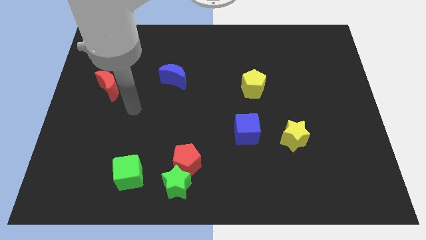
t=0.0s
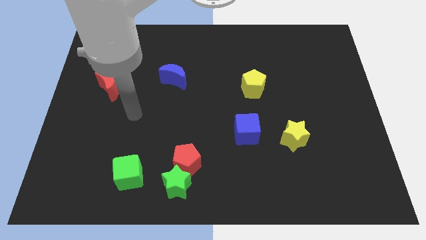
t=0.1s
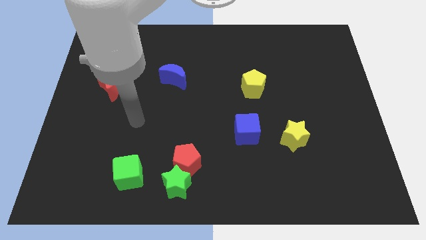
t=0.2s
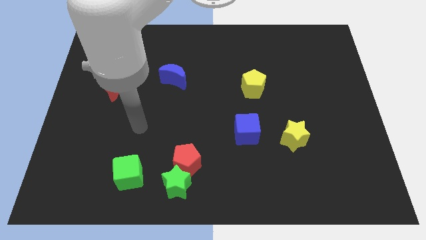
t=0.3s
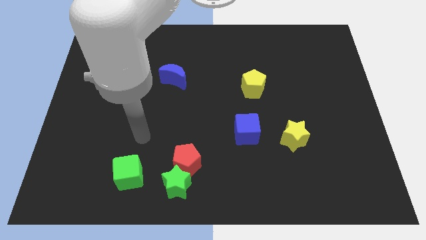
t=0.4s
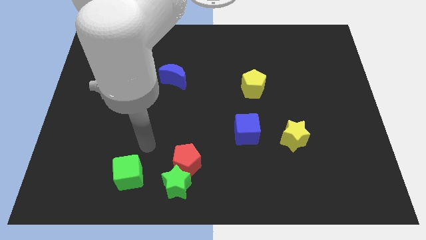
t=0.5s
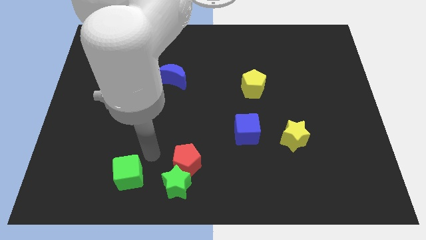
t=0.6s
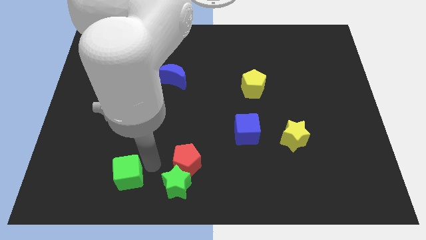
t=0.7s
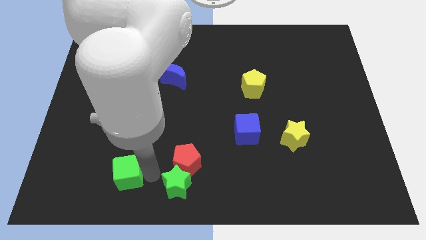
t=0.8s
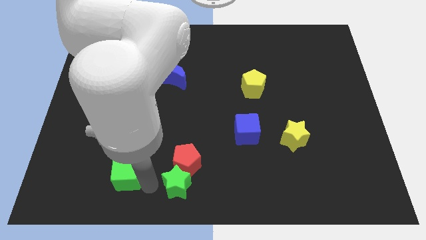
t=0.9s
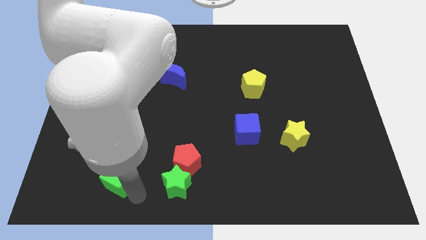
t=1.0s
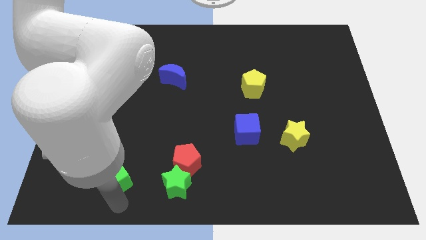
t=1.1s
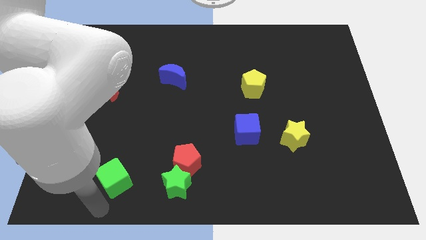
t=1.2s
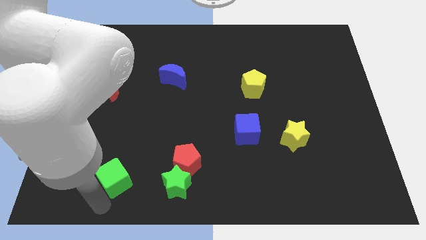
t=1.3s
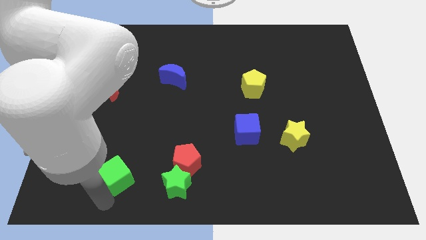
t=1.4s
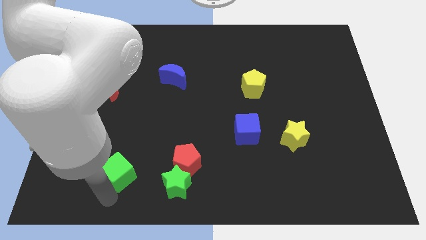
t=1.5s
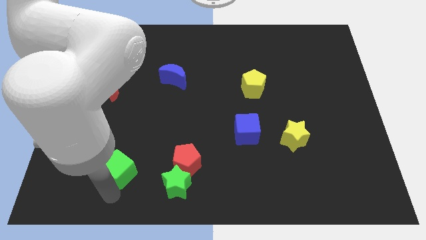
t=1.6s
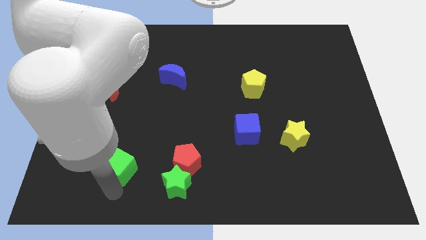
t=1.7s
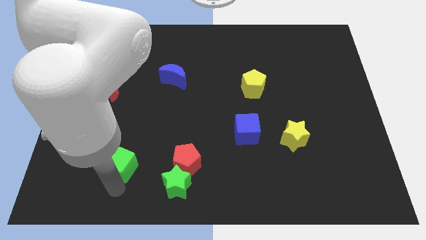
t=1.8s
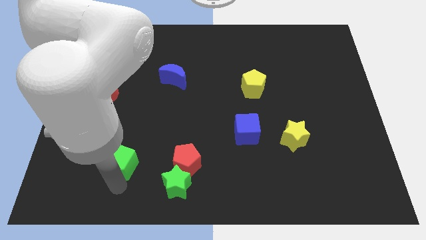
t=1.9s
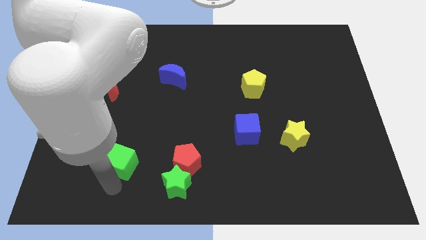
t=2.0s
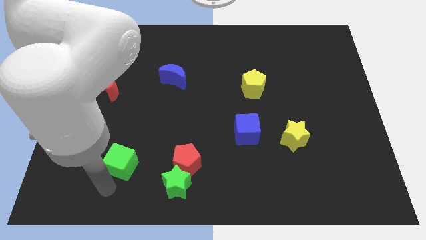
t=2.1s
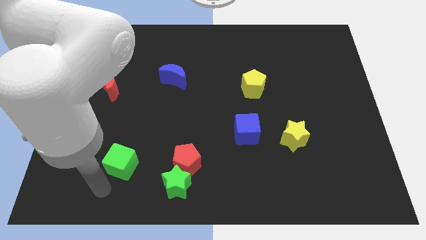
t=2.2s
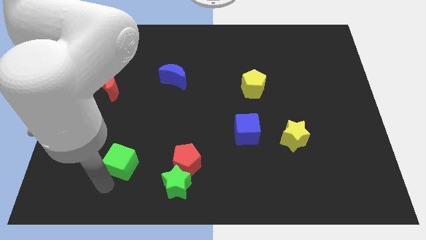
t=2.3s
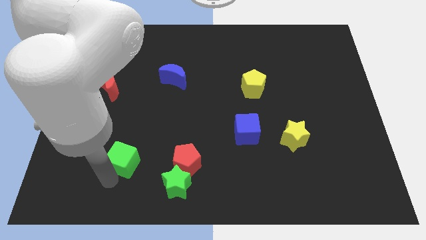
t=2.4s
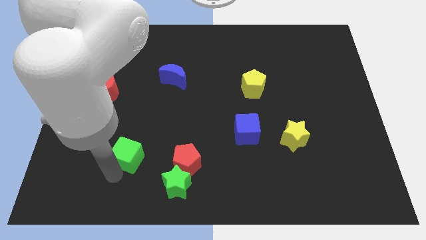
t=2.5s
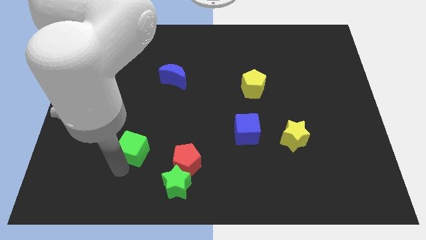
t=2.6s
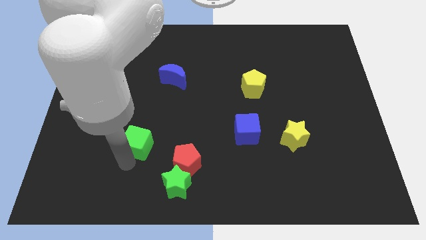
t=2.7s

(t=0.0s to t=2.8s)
slightly push the green cube upwards

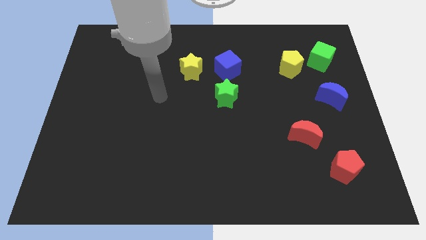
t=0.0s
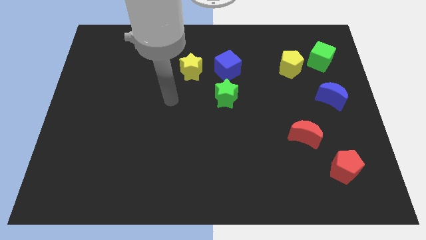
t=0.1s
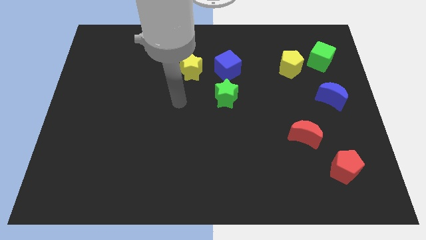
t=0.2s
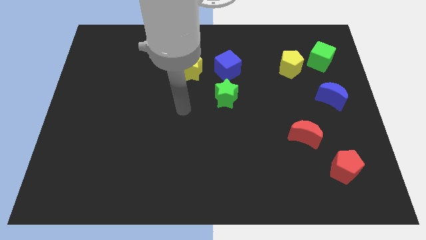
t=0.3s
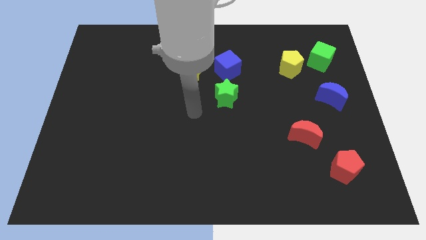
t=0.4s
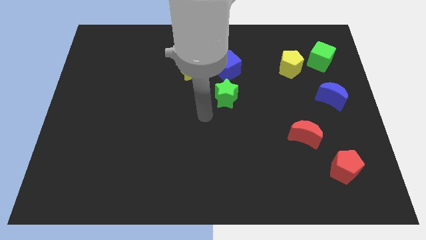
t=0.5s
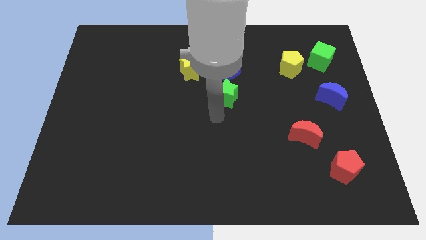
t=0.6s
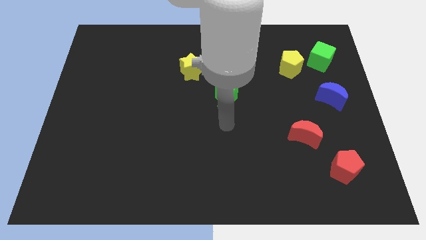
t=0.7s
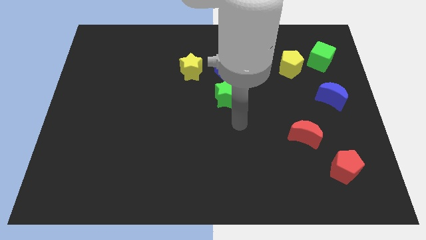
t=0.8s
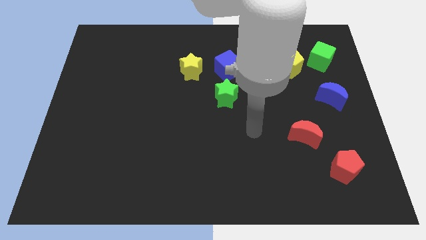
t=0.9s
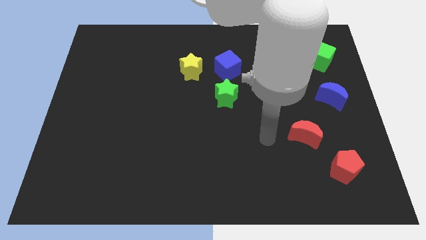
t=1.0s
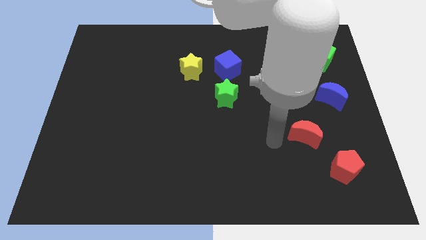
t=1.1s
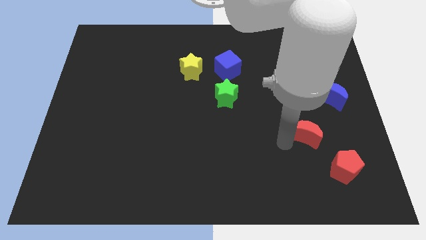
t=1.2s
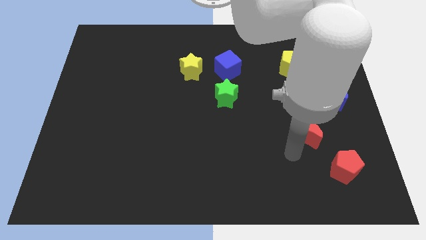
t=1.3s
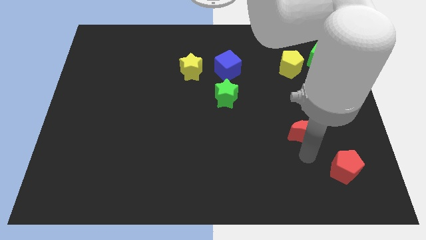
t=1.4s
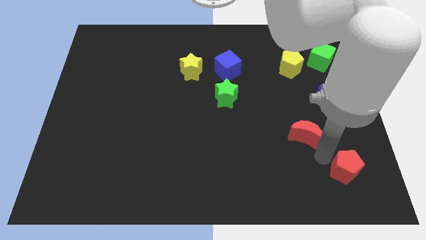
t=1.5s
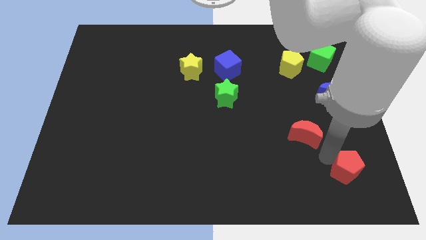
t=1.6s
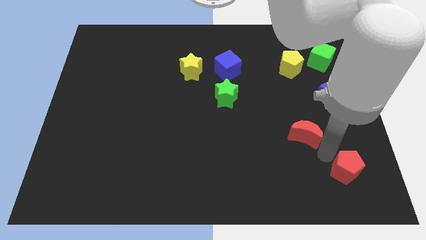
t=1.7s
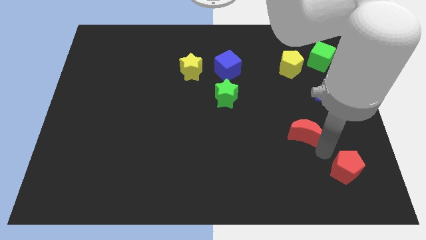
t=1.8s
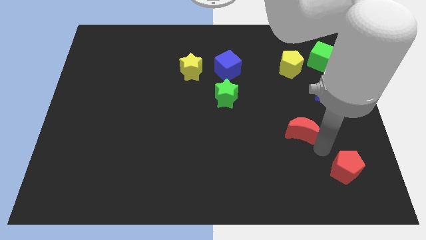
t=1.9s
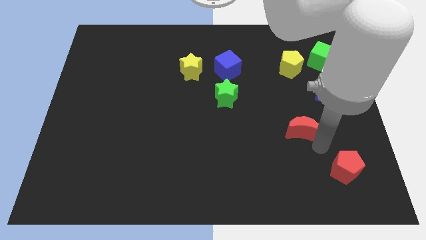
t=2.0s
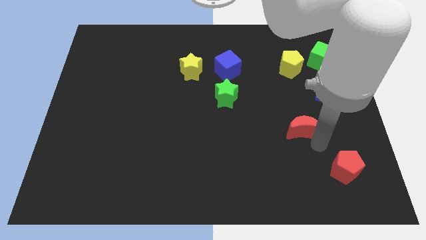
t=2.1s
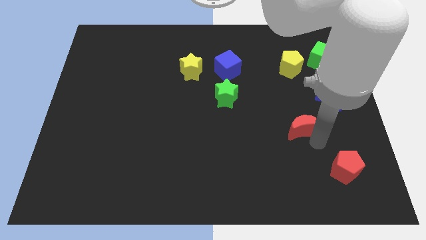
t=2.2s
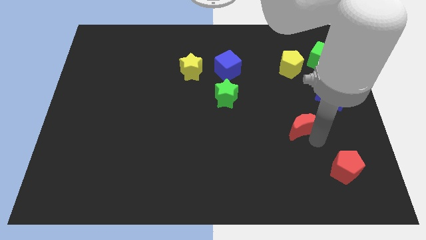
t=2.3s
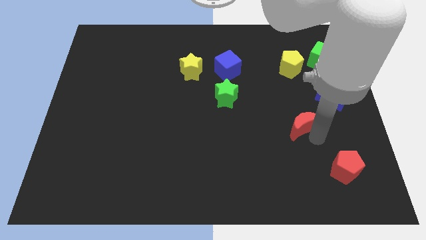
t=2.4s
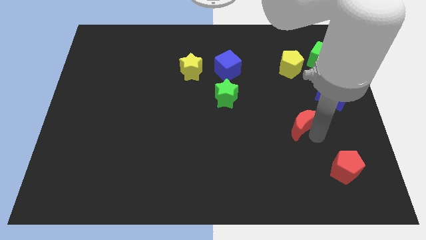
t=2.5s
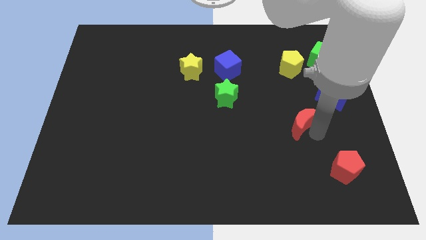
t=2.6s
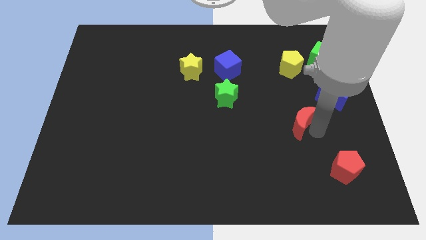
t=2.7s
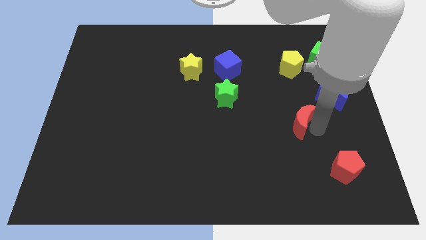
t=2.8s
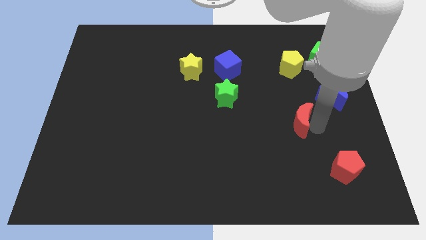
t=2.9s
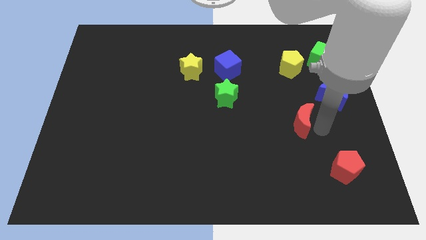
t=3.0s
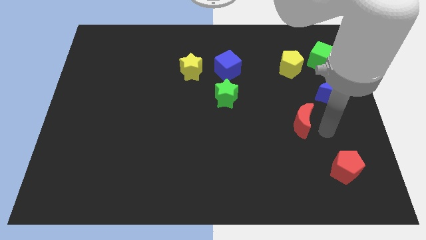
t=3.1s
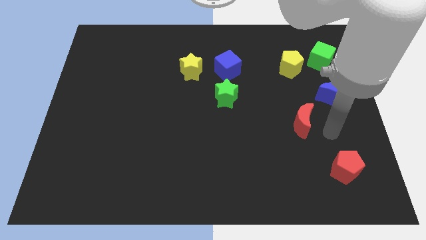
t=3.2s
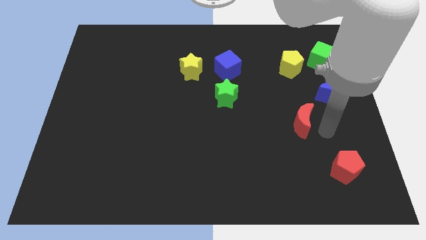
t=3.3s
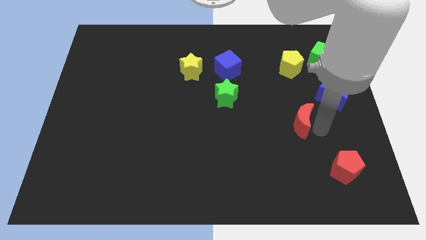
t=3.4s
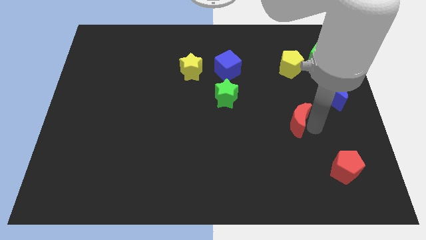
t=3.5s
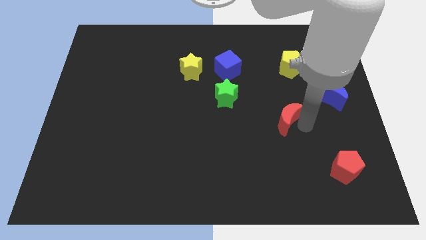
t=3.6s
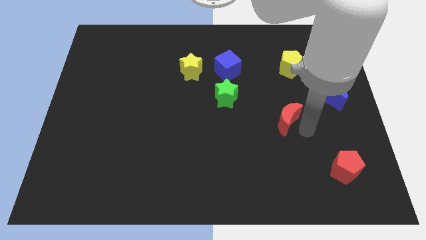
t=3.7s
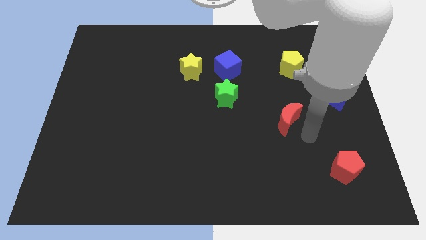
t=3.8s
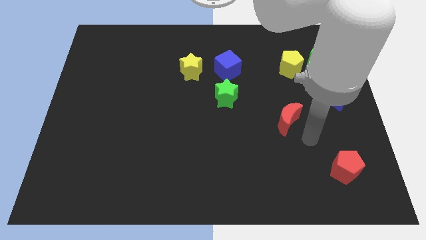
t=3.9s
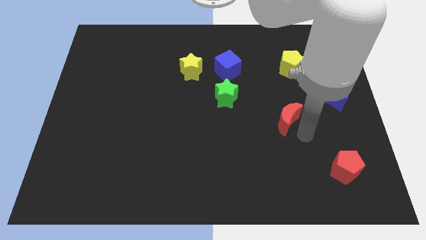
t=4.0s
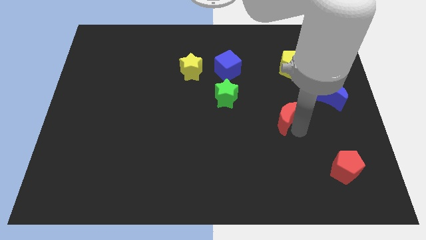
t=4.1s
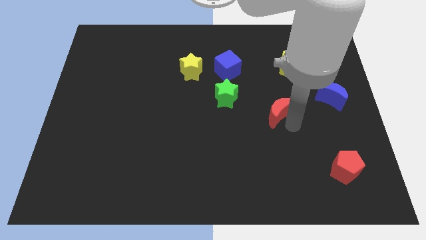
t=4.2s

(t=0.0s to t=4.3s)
push the red moon up and then to the left slightly

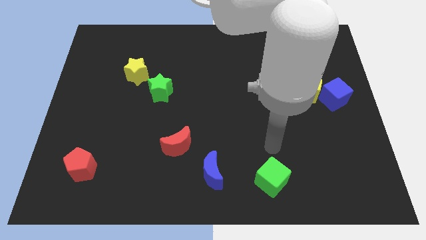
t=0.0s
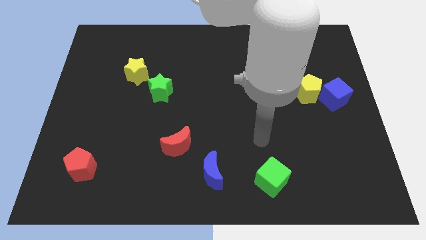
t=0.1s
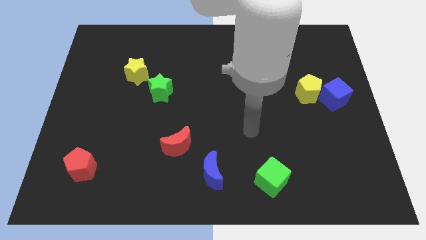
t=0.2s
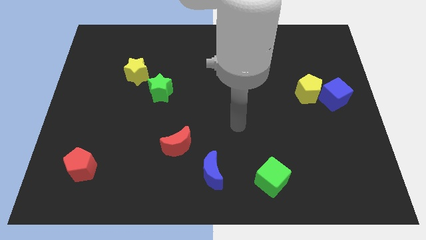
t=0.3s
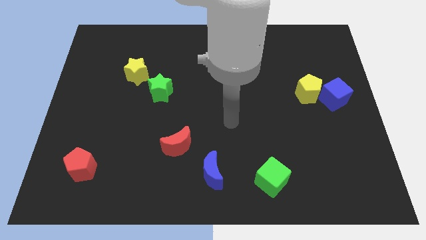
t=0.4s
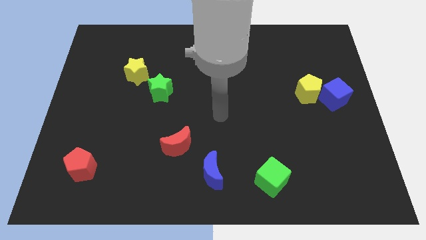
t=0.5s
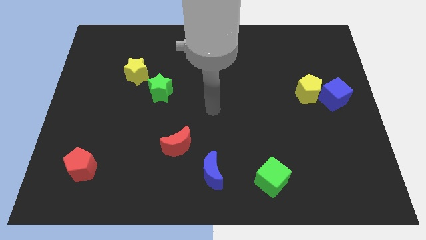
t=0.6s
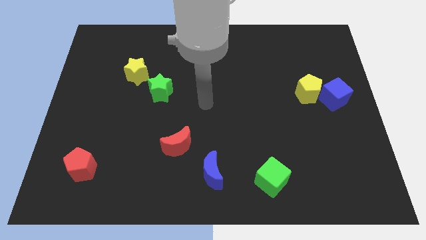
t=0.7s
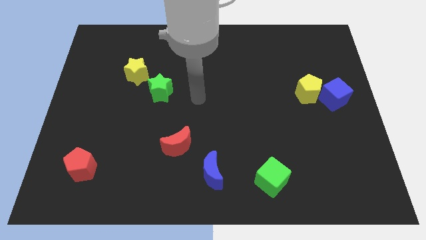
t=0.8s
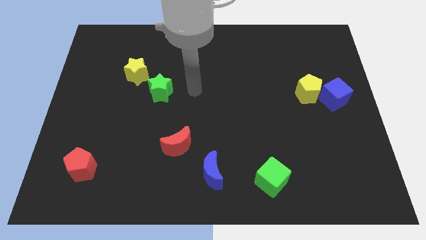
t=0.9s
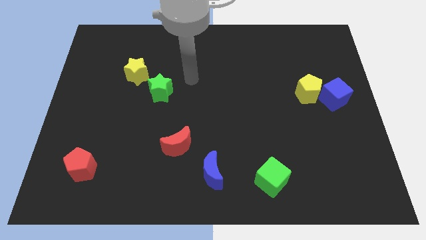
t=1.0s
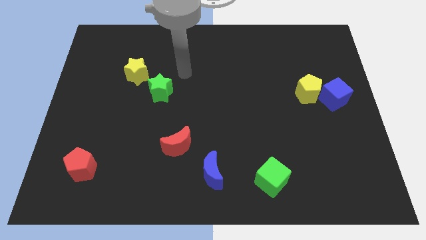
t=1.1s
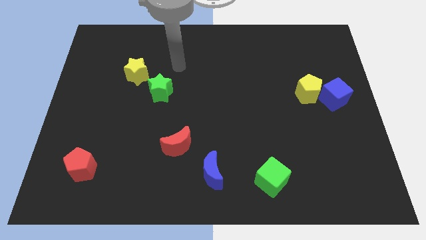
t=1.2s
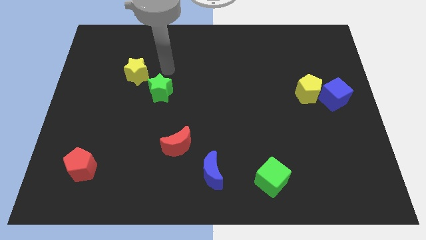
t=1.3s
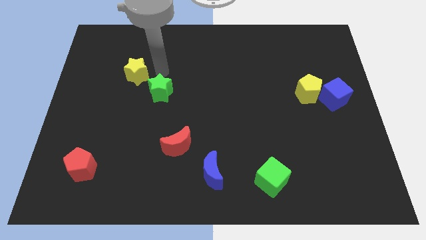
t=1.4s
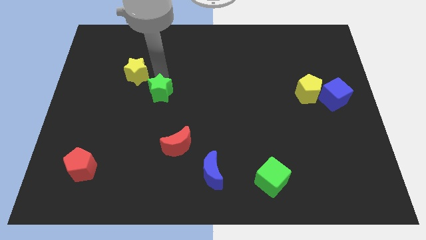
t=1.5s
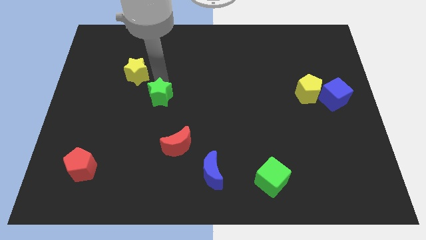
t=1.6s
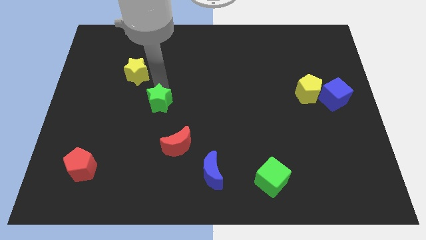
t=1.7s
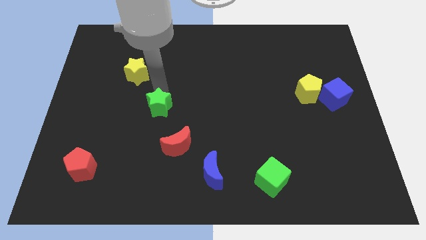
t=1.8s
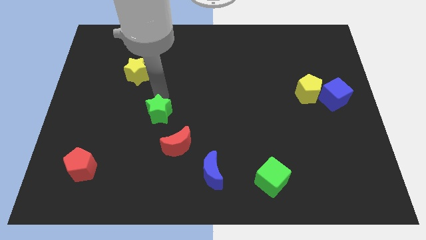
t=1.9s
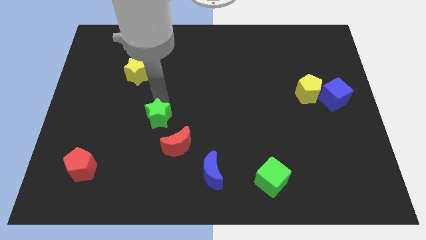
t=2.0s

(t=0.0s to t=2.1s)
slide the green star down a little bit
